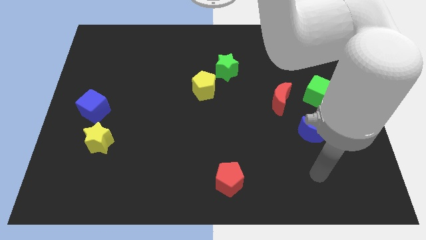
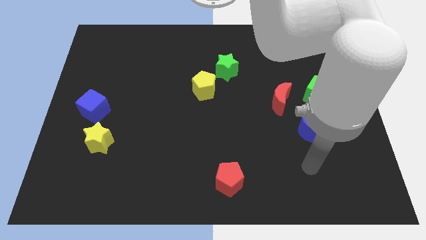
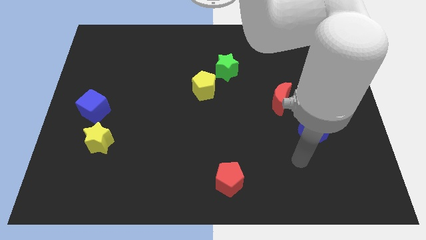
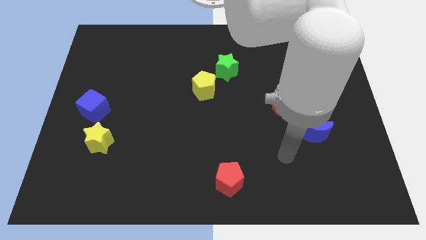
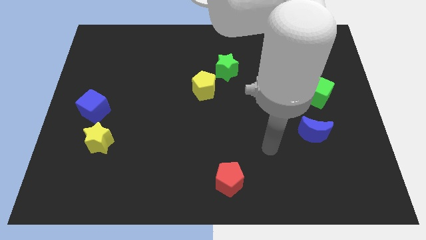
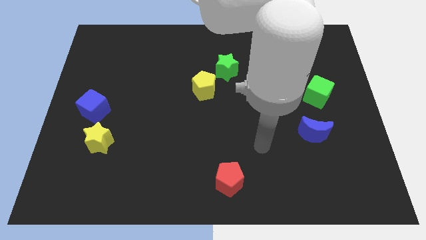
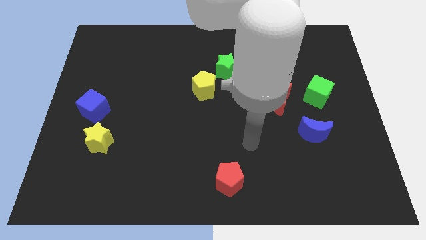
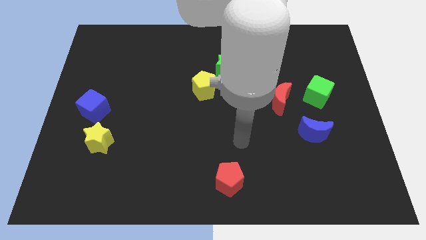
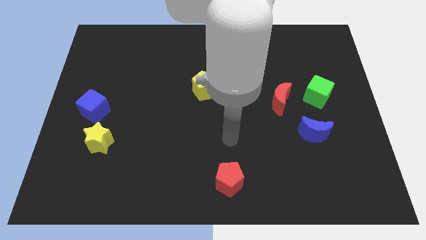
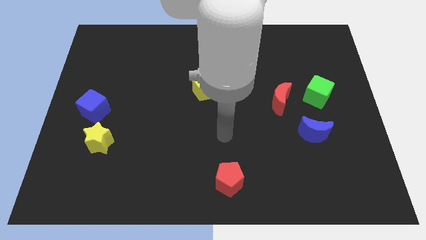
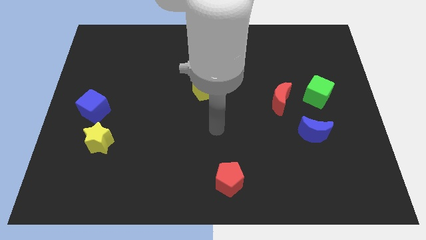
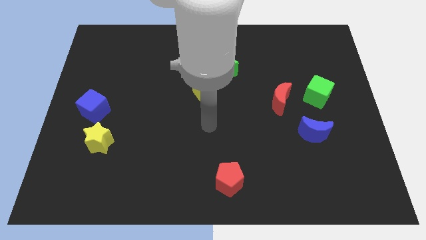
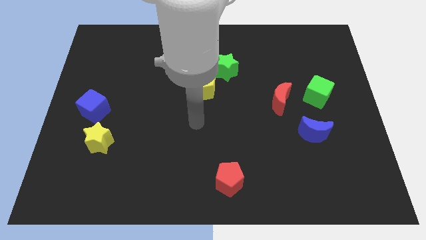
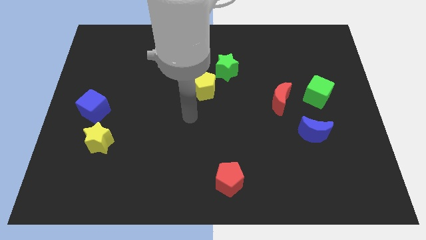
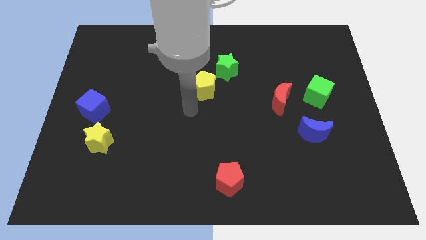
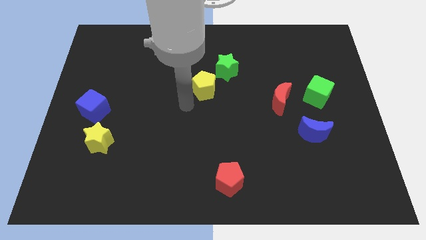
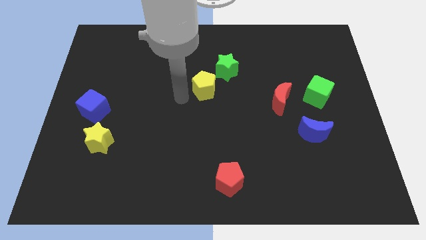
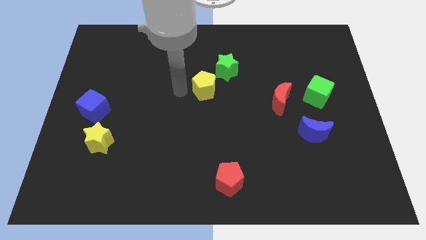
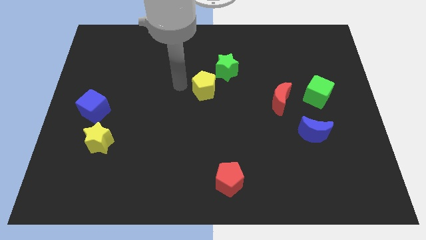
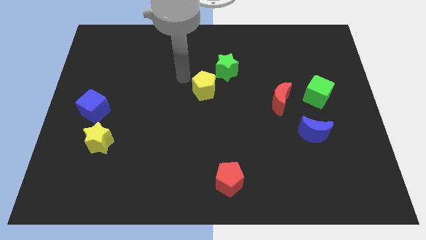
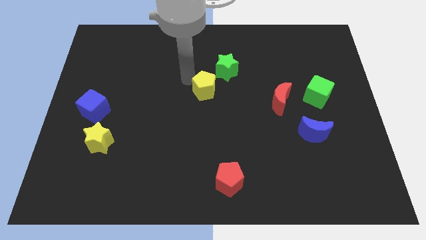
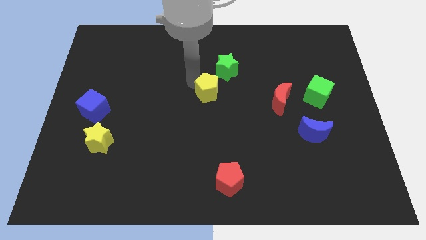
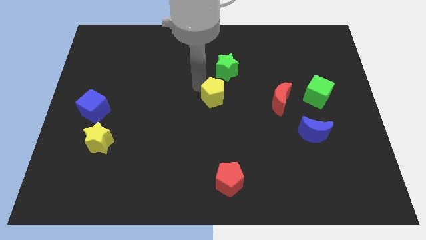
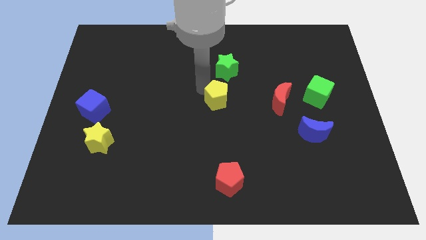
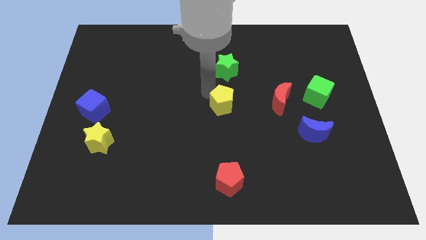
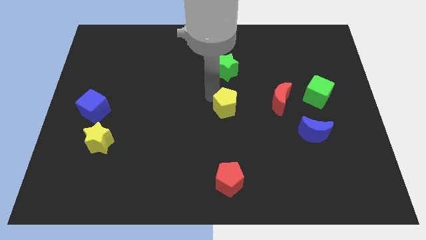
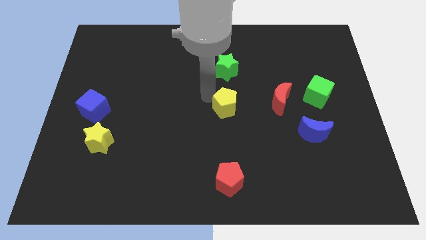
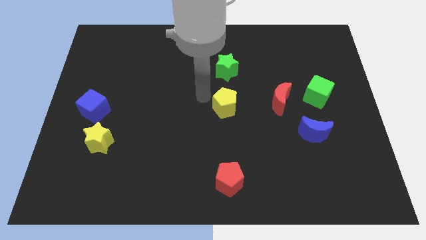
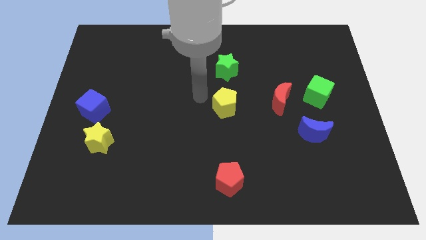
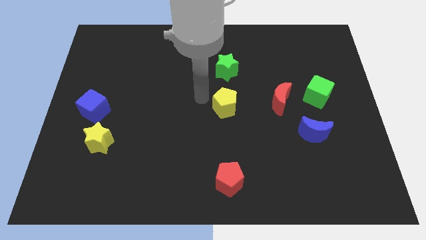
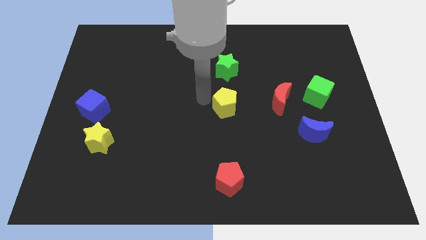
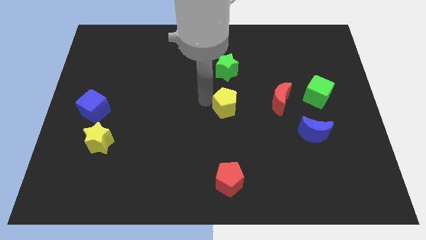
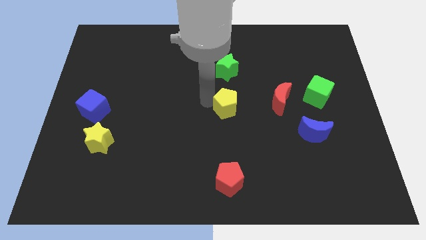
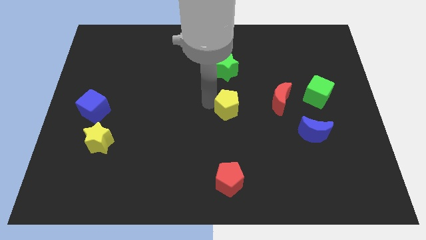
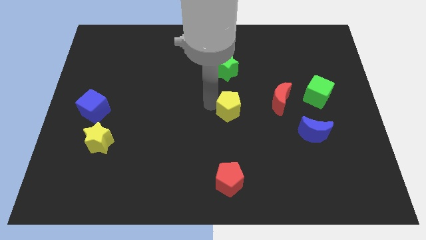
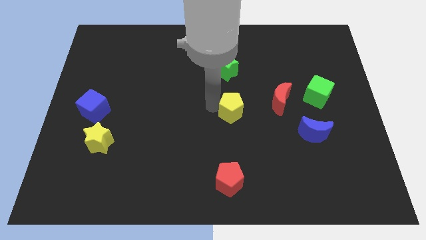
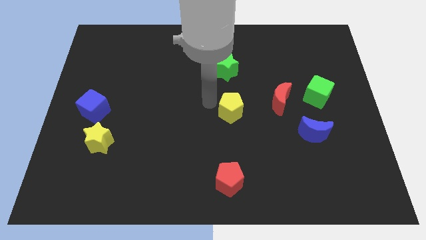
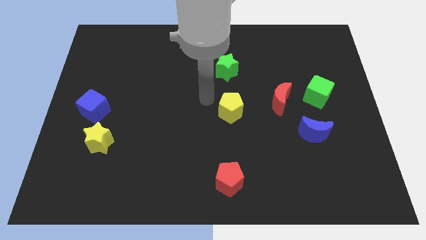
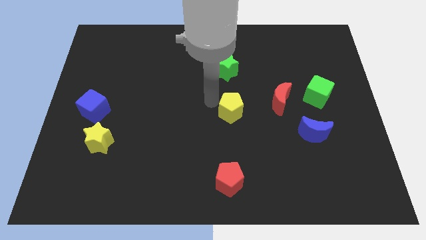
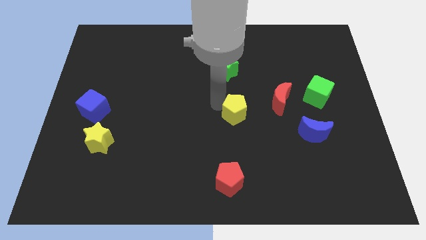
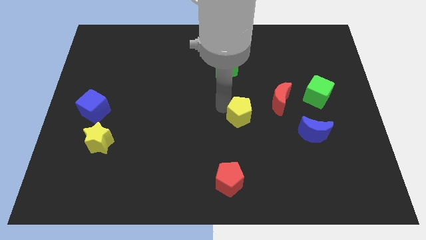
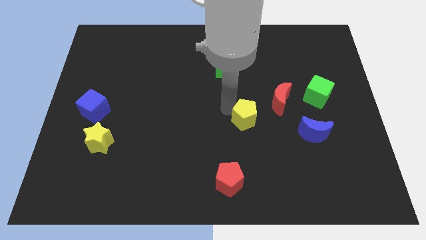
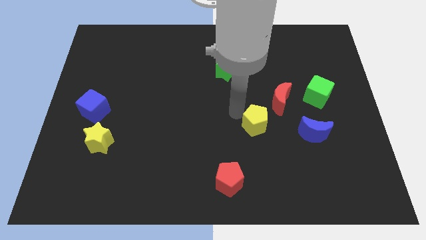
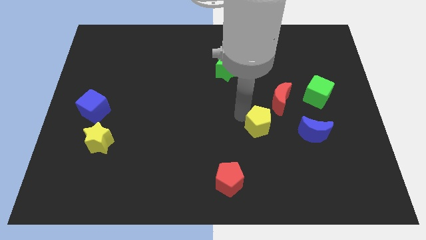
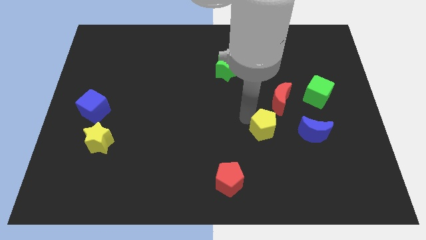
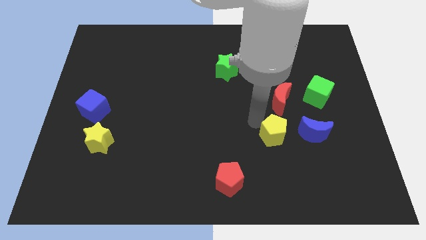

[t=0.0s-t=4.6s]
move the yellow pentagon downwards and right diagonally

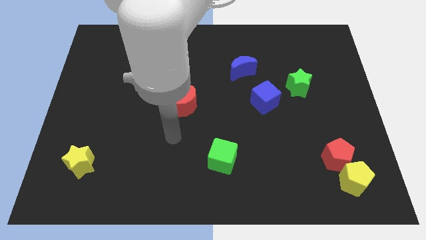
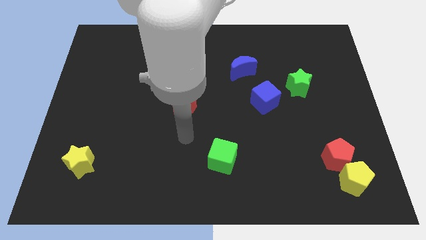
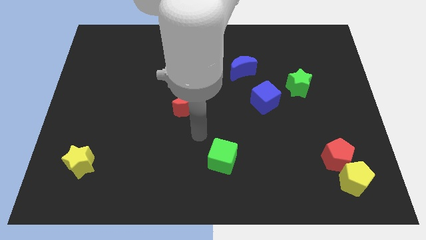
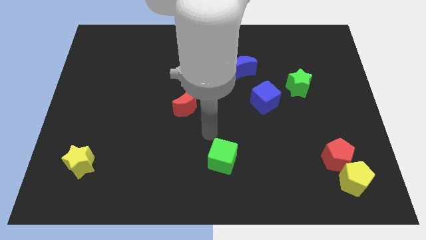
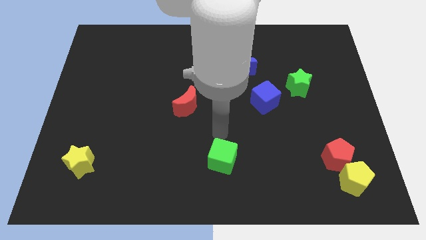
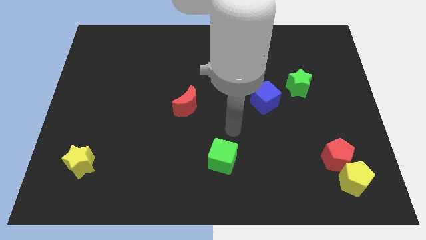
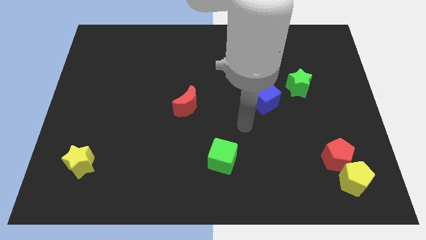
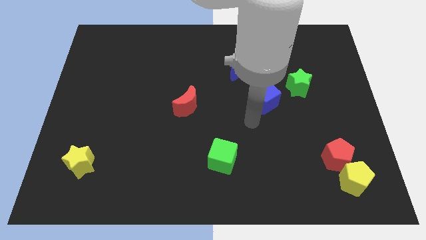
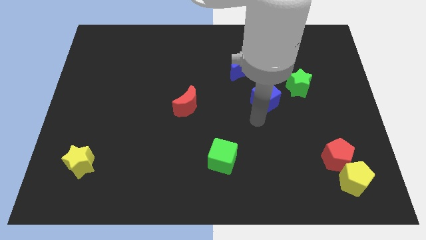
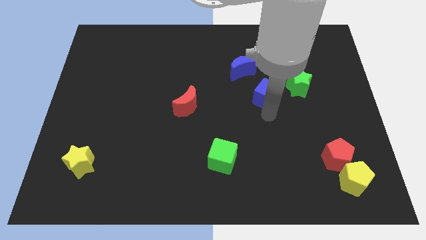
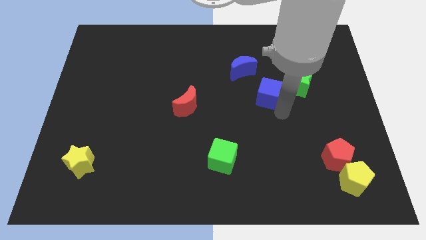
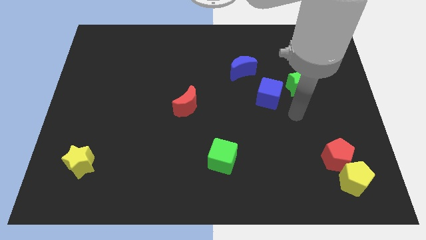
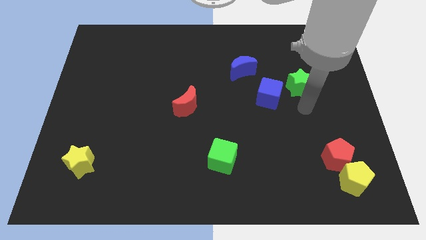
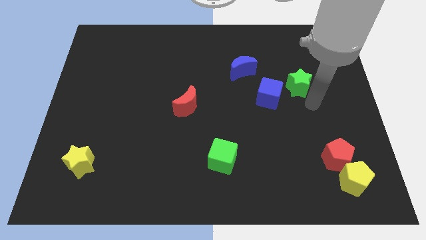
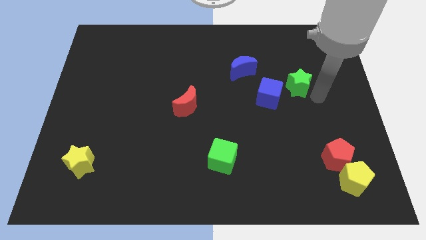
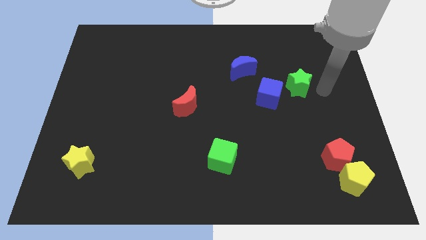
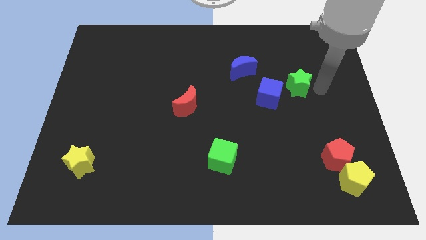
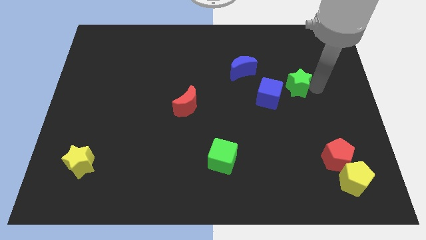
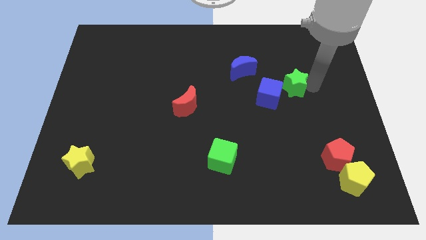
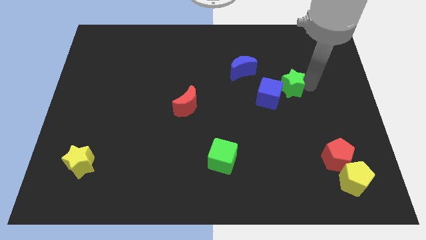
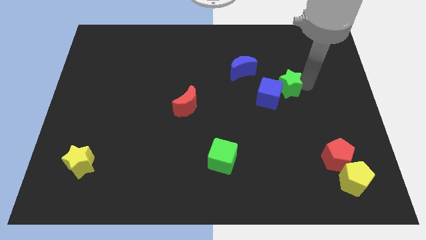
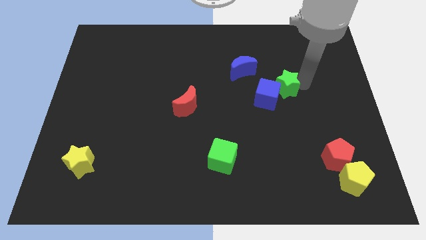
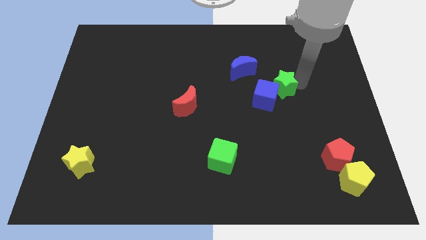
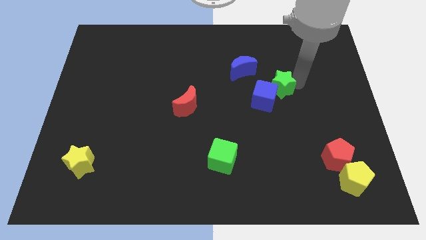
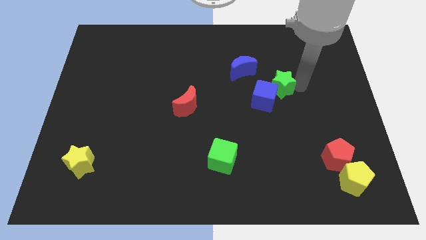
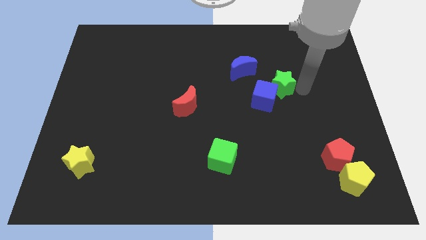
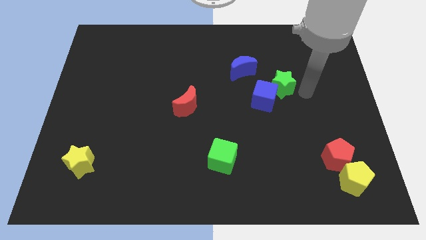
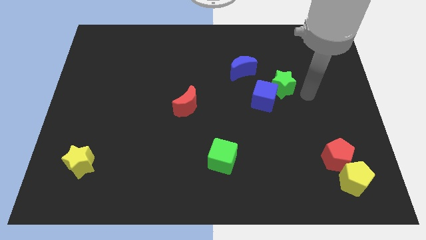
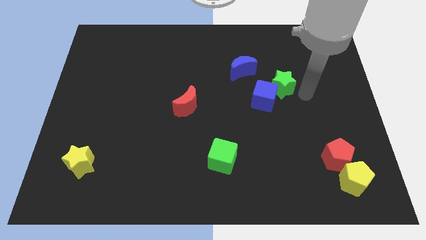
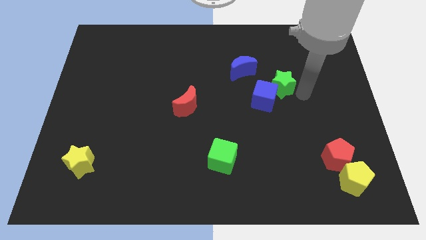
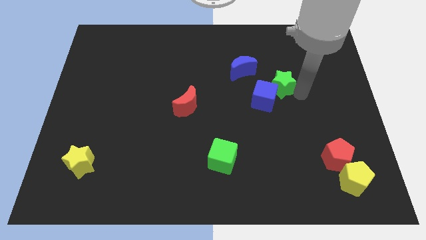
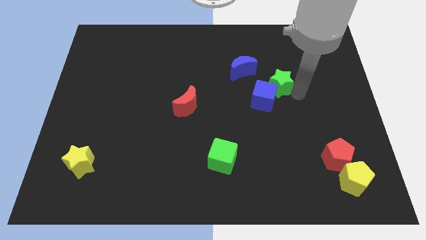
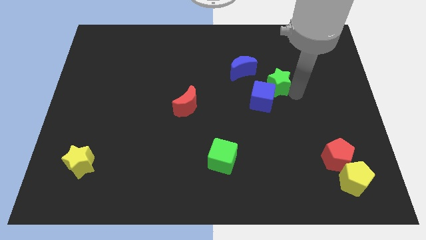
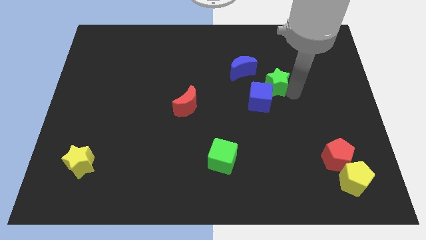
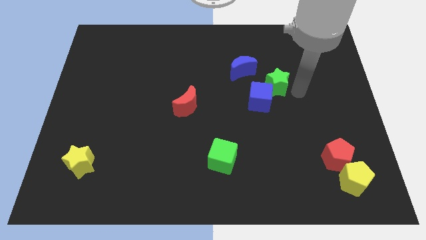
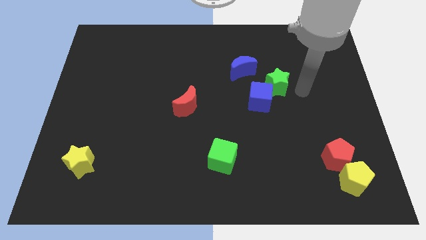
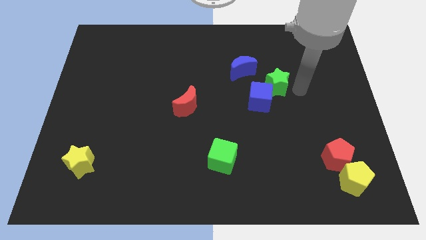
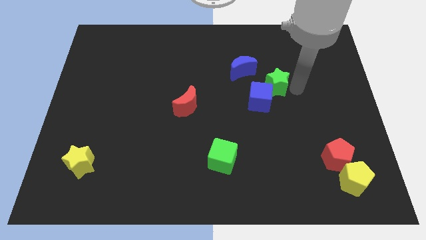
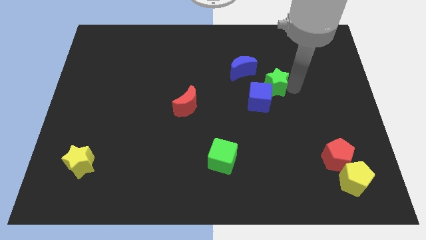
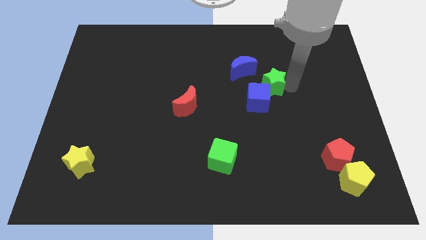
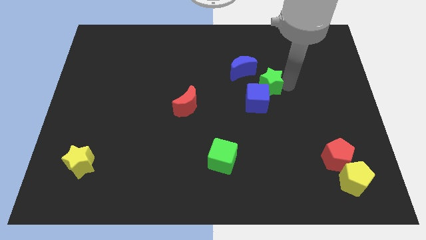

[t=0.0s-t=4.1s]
push the green star a little left
